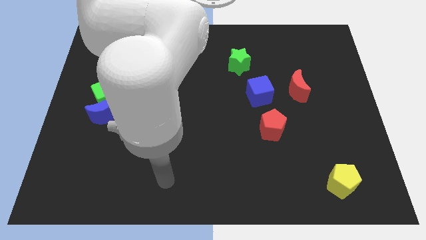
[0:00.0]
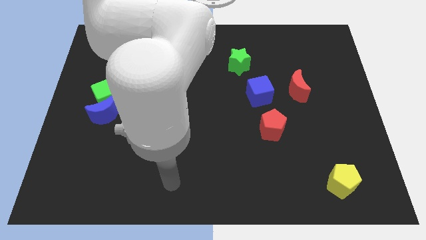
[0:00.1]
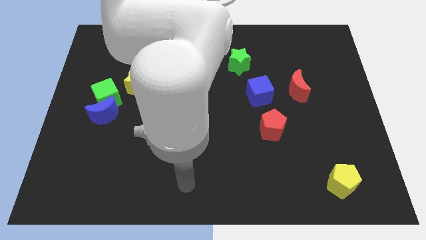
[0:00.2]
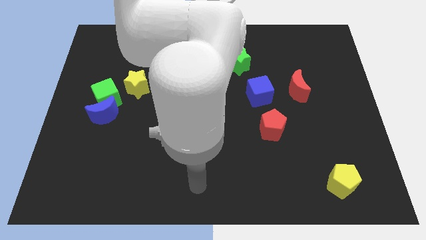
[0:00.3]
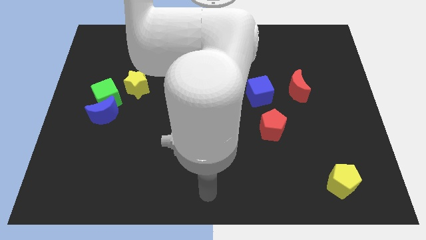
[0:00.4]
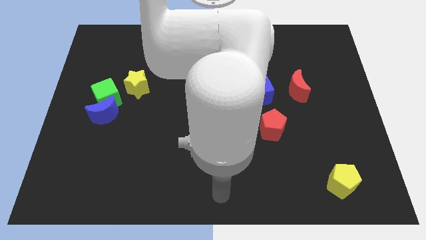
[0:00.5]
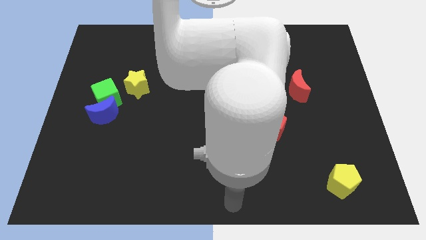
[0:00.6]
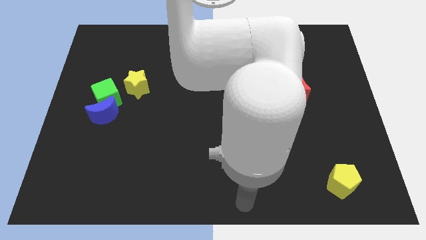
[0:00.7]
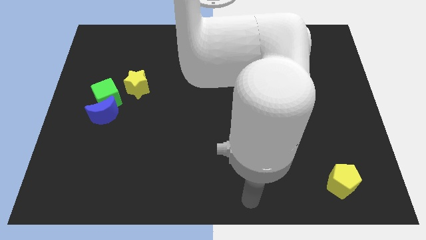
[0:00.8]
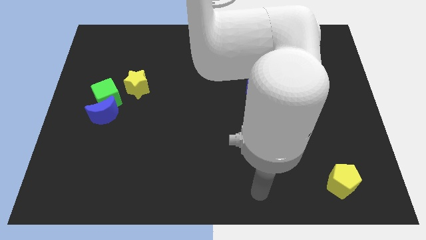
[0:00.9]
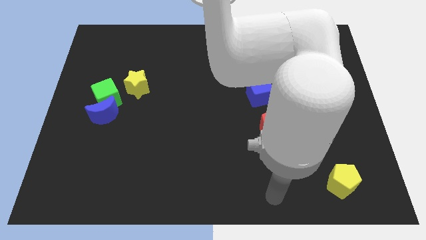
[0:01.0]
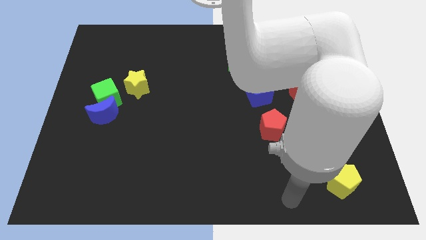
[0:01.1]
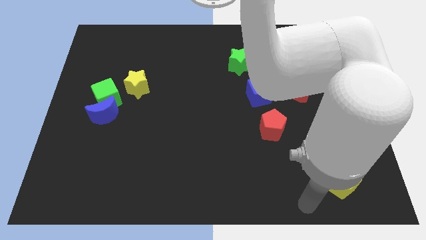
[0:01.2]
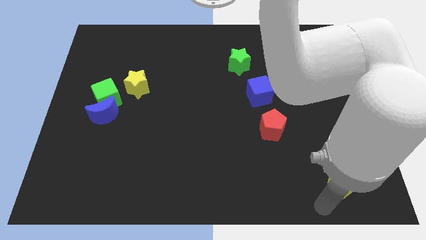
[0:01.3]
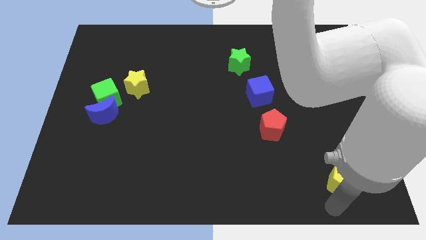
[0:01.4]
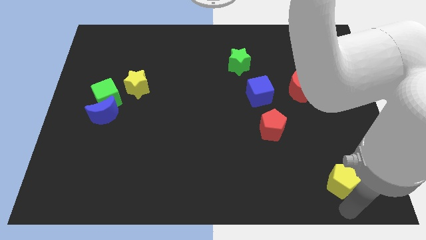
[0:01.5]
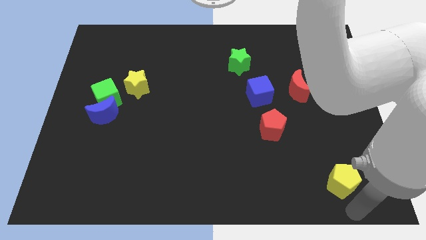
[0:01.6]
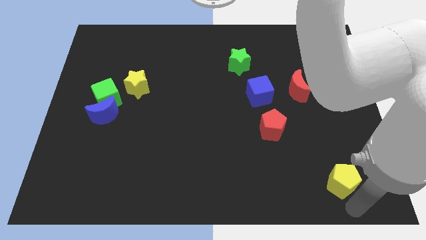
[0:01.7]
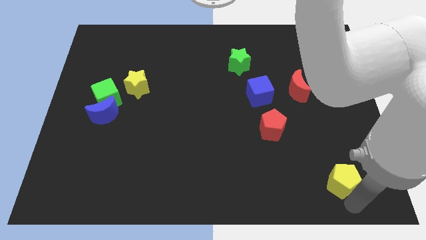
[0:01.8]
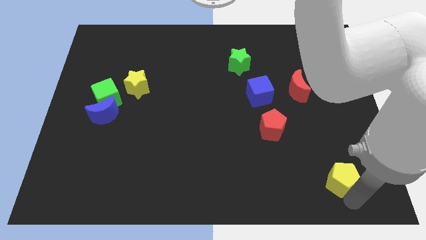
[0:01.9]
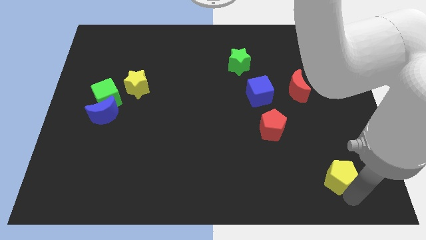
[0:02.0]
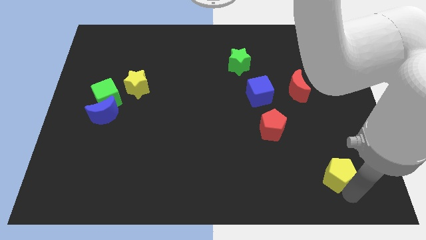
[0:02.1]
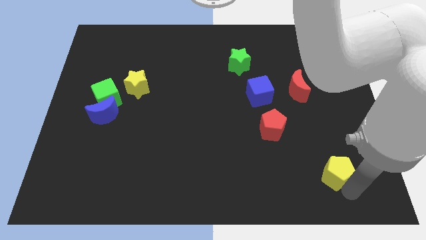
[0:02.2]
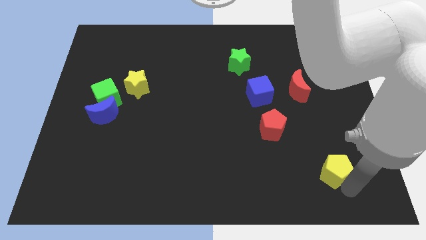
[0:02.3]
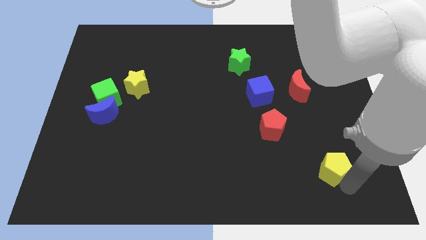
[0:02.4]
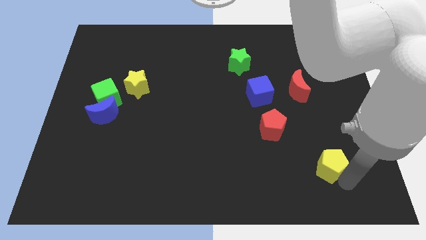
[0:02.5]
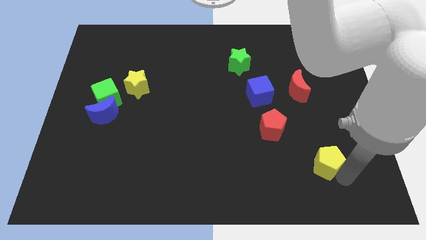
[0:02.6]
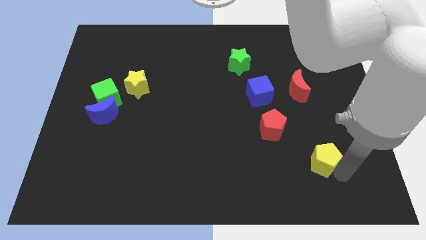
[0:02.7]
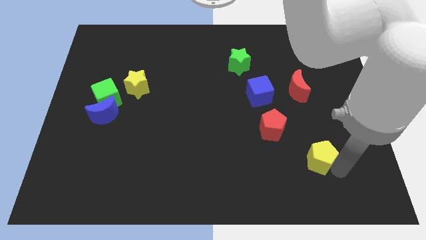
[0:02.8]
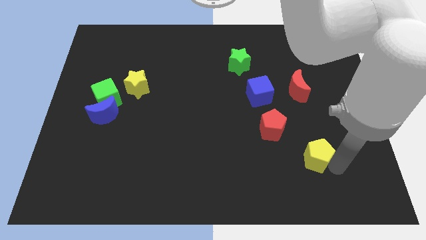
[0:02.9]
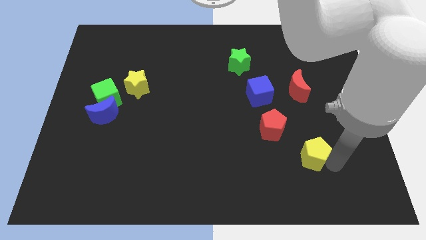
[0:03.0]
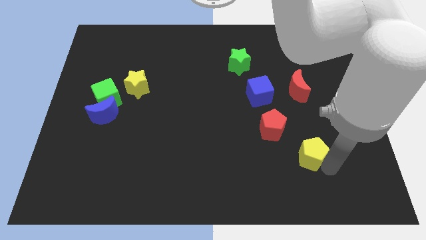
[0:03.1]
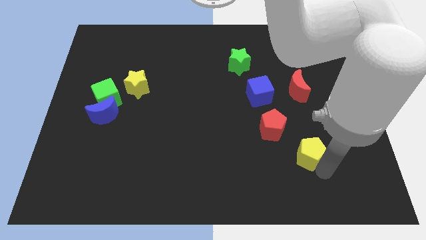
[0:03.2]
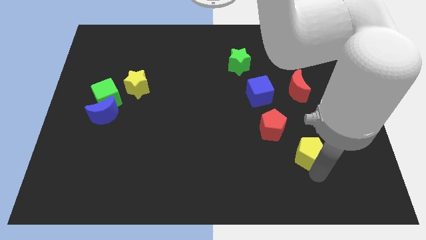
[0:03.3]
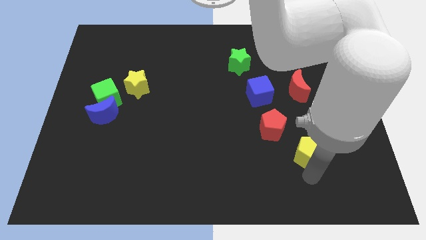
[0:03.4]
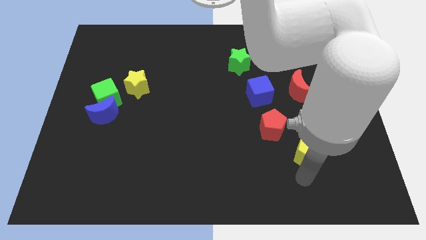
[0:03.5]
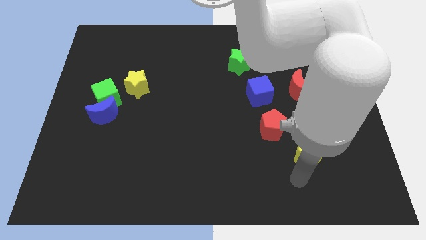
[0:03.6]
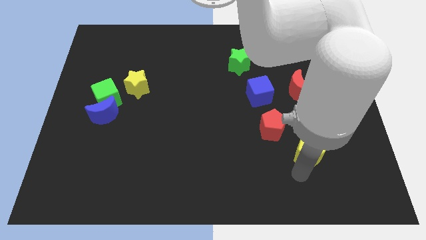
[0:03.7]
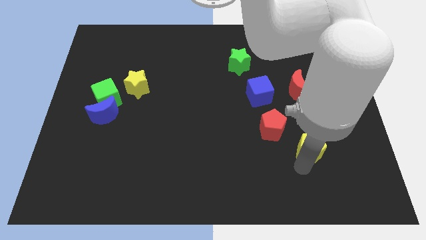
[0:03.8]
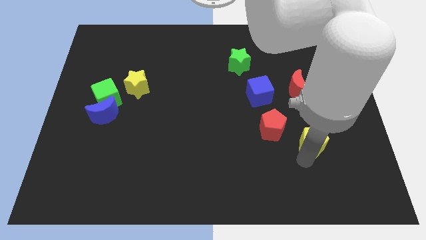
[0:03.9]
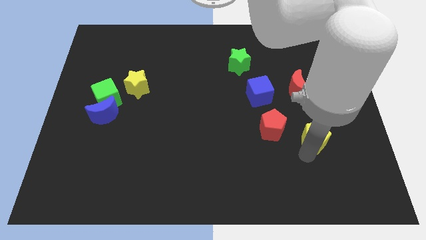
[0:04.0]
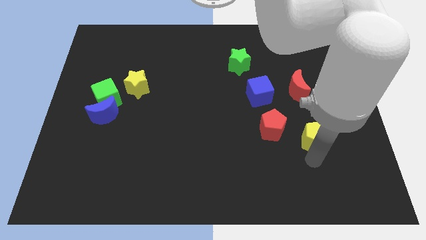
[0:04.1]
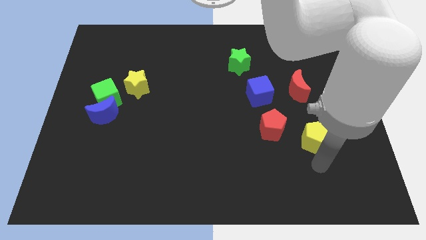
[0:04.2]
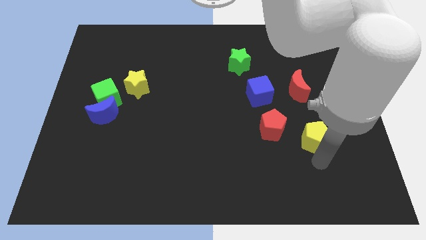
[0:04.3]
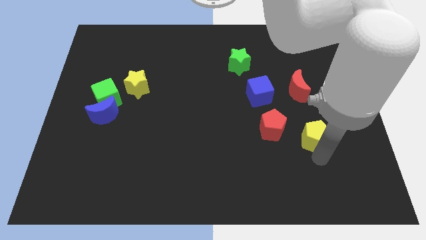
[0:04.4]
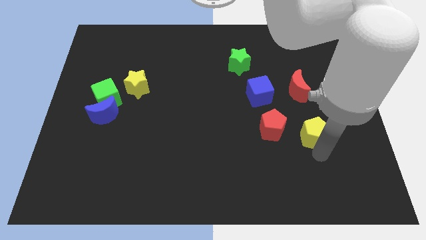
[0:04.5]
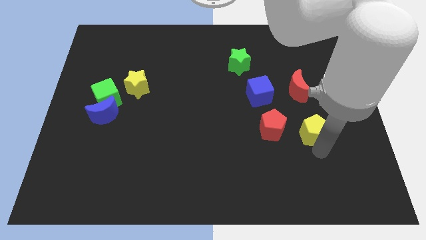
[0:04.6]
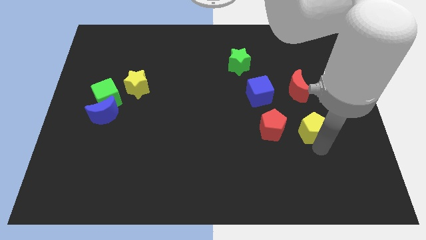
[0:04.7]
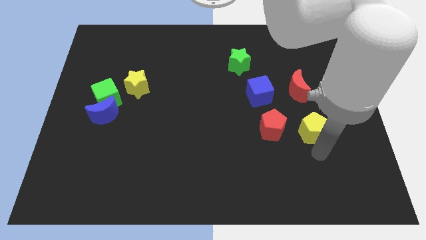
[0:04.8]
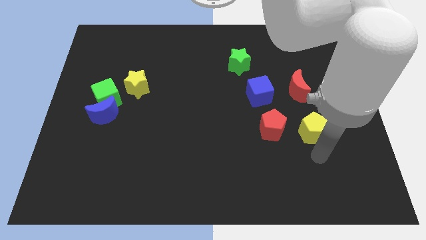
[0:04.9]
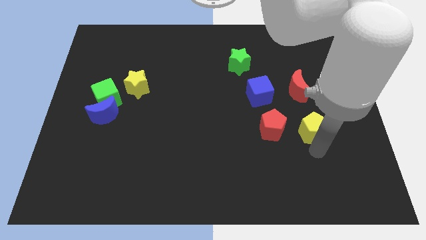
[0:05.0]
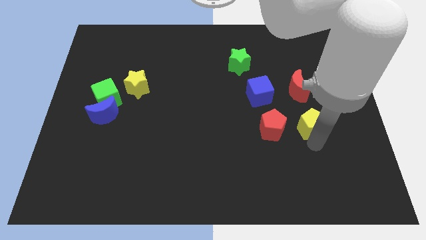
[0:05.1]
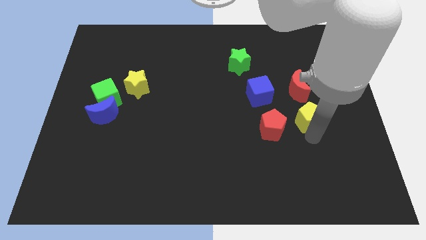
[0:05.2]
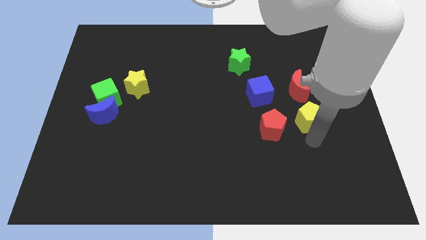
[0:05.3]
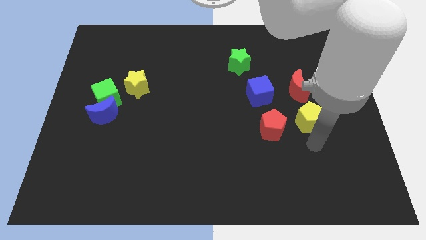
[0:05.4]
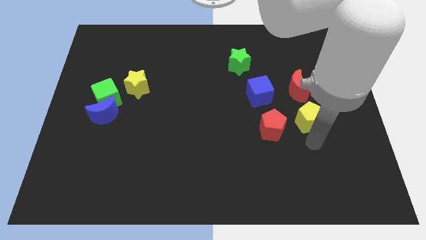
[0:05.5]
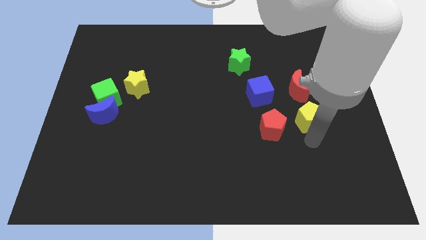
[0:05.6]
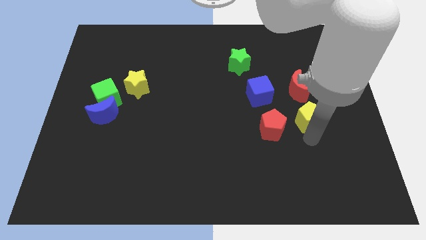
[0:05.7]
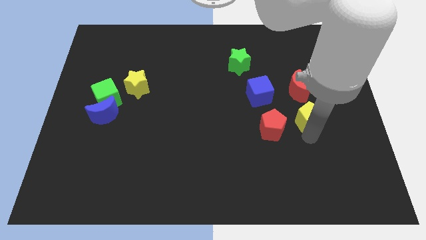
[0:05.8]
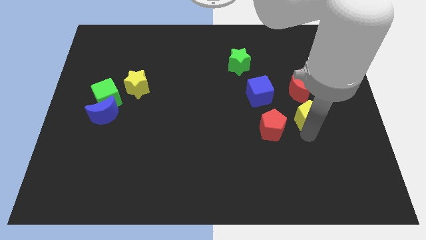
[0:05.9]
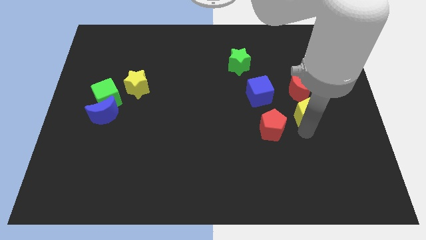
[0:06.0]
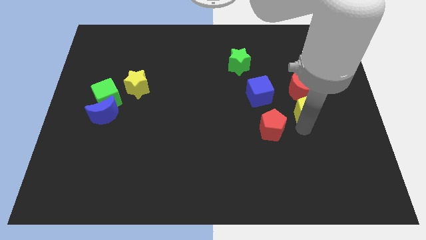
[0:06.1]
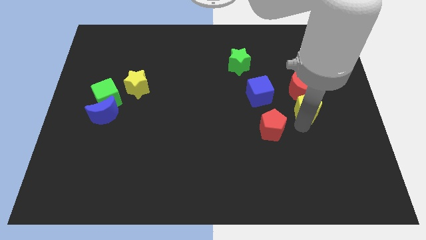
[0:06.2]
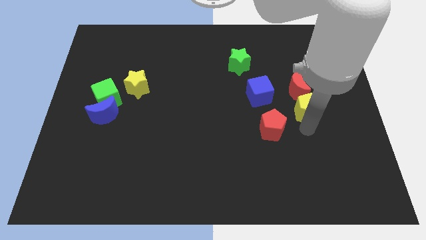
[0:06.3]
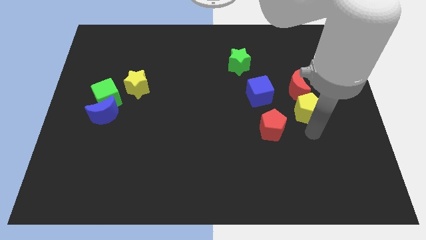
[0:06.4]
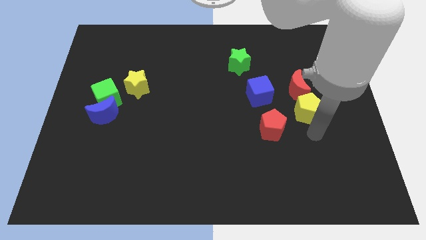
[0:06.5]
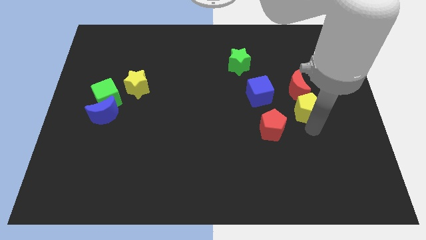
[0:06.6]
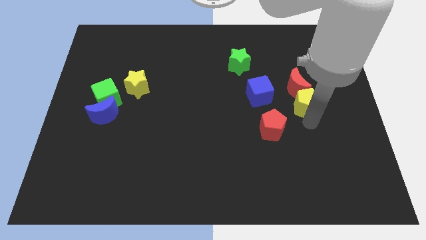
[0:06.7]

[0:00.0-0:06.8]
push the yellow pentagon towards the red moon
